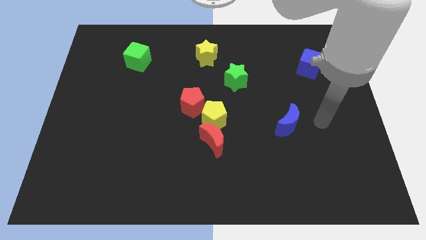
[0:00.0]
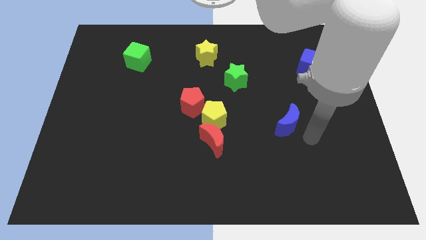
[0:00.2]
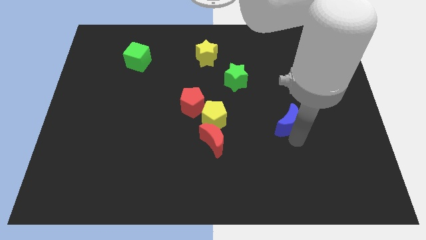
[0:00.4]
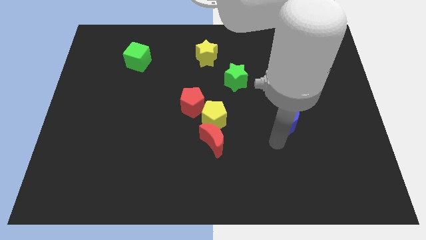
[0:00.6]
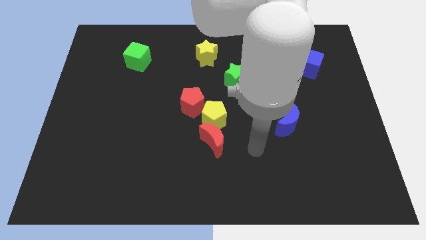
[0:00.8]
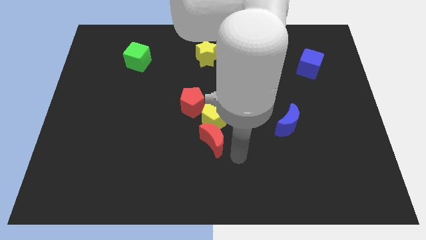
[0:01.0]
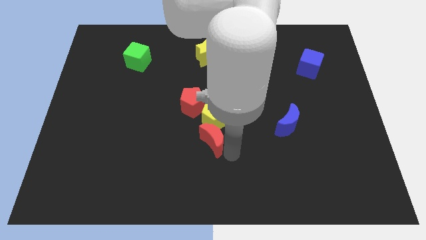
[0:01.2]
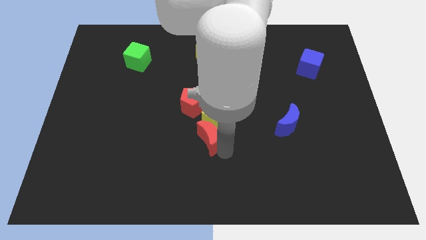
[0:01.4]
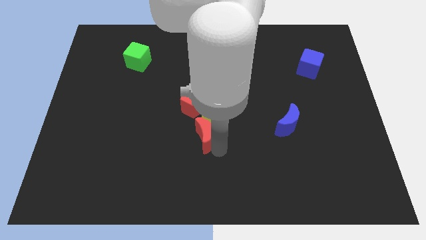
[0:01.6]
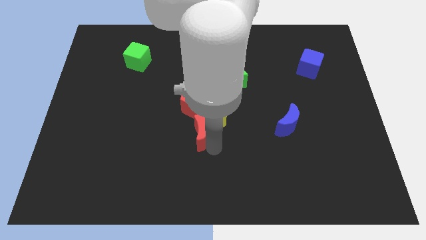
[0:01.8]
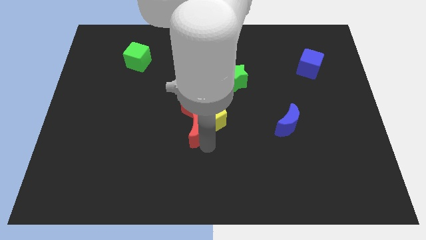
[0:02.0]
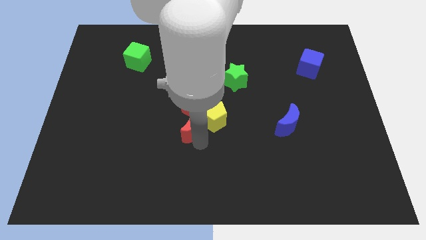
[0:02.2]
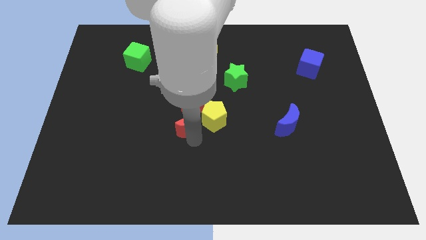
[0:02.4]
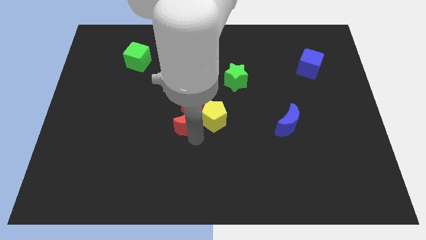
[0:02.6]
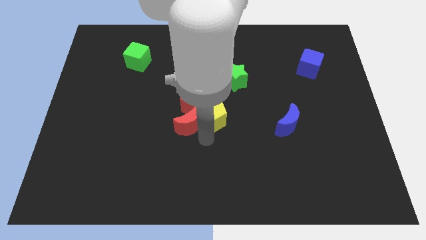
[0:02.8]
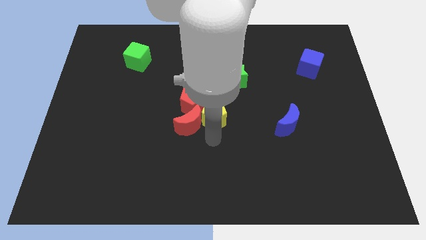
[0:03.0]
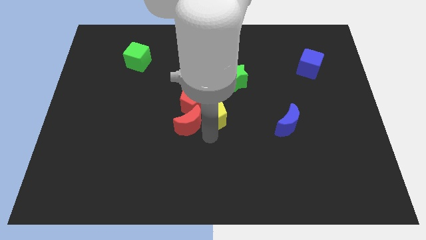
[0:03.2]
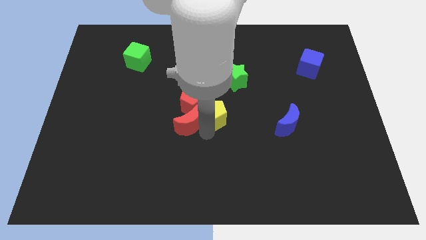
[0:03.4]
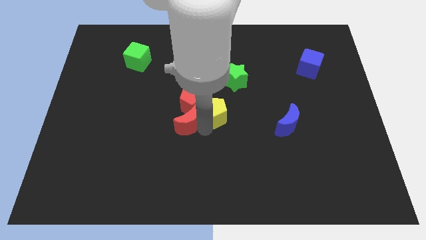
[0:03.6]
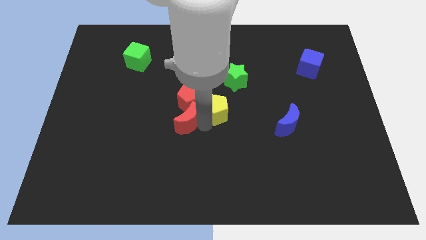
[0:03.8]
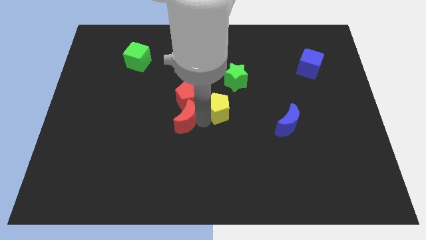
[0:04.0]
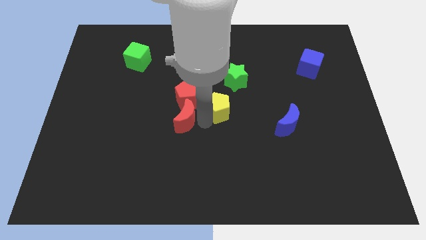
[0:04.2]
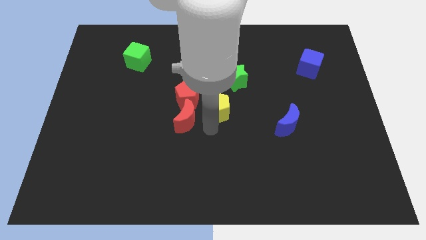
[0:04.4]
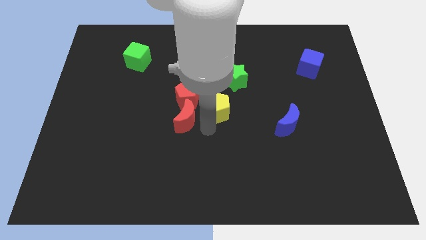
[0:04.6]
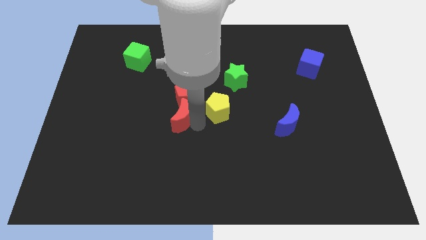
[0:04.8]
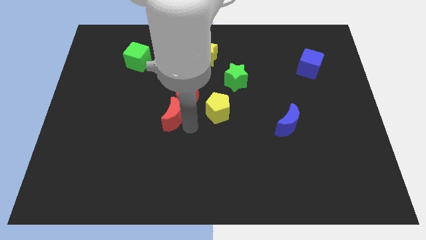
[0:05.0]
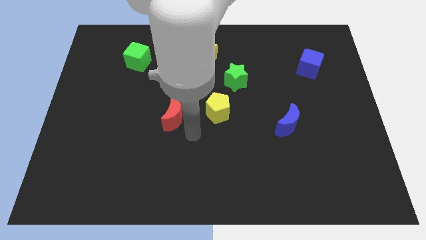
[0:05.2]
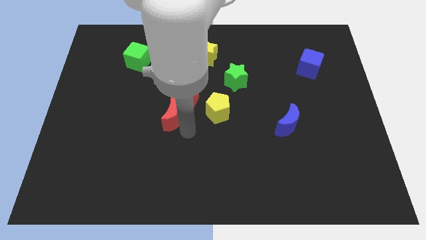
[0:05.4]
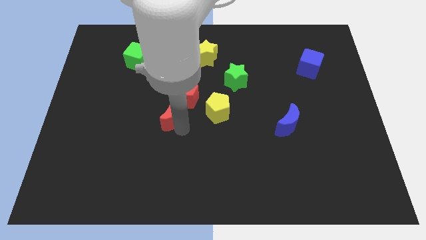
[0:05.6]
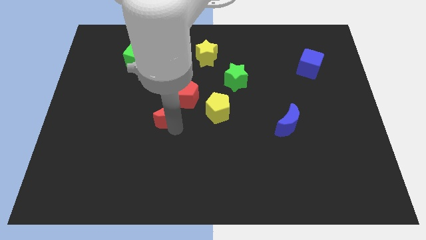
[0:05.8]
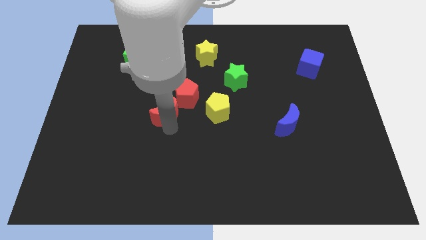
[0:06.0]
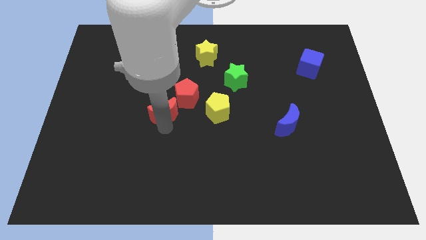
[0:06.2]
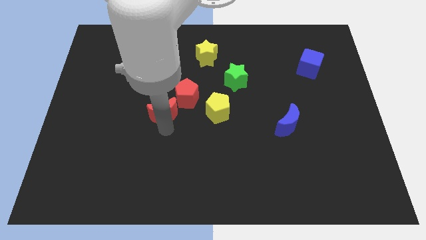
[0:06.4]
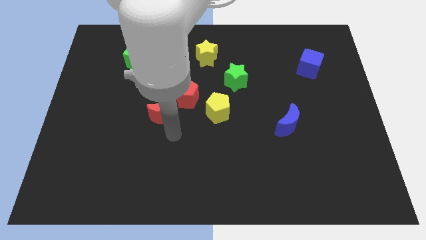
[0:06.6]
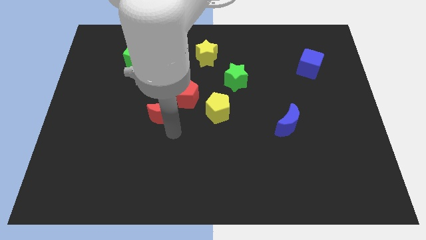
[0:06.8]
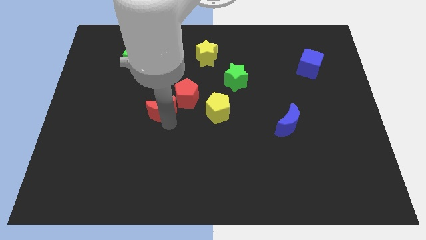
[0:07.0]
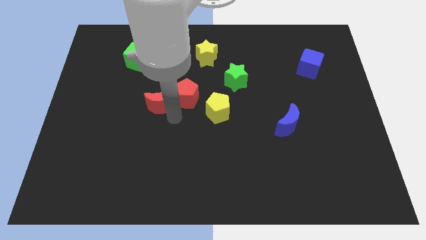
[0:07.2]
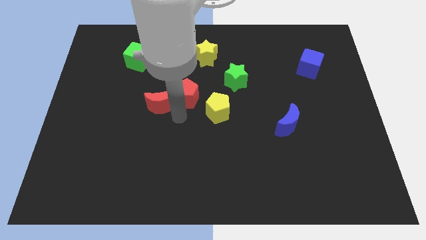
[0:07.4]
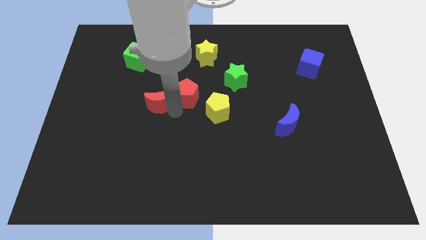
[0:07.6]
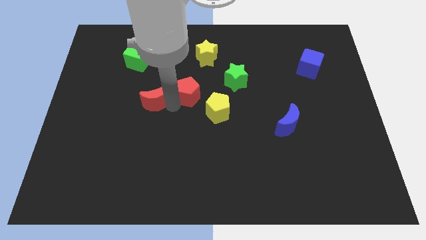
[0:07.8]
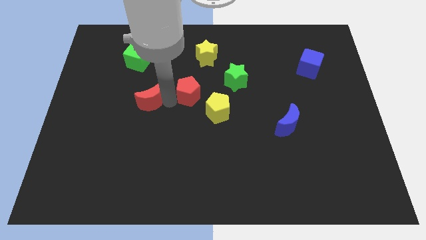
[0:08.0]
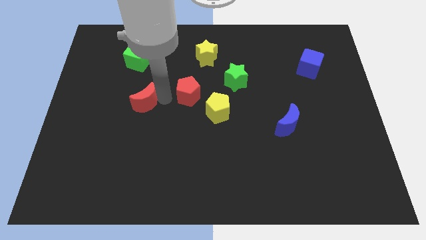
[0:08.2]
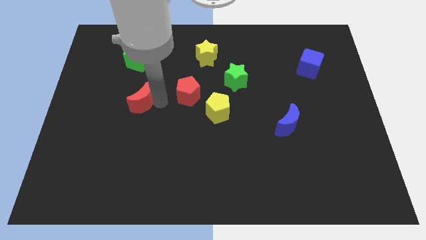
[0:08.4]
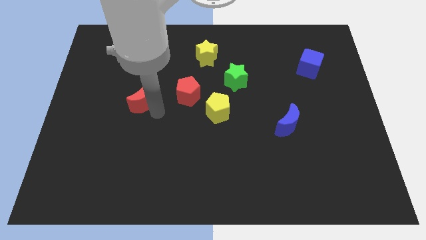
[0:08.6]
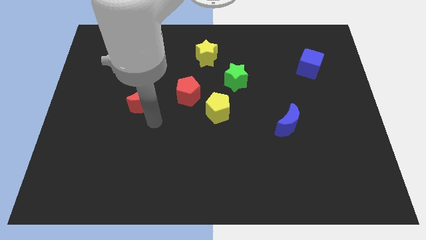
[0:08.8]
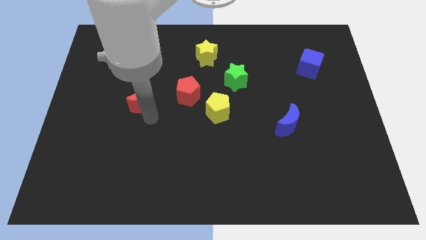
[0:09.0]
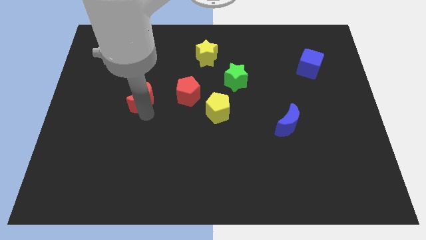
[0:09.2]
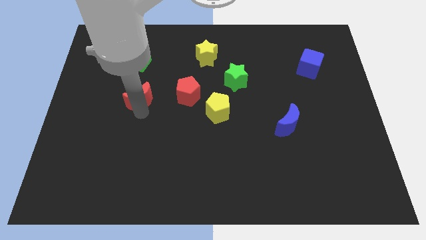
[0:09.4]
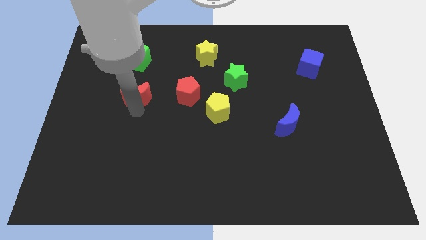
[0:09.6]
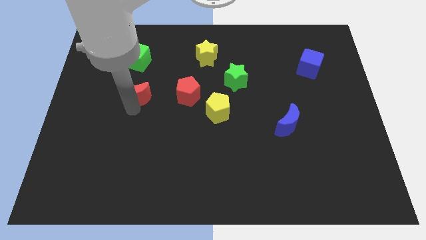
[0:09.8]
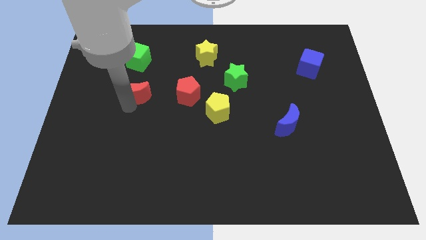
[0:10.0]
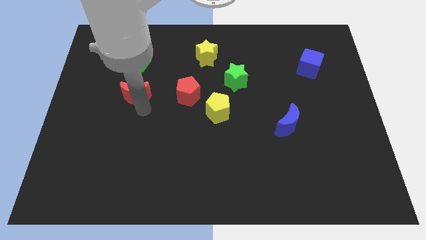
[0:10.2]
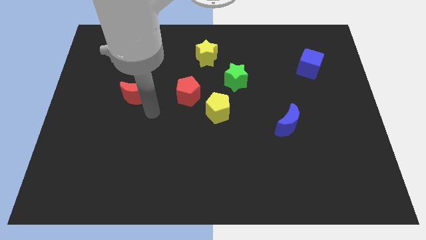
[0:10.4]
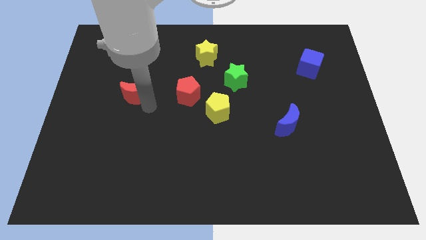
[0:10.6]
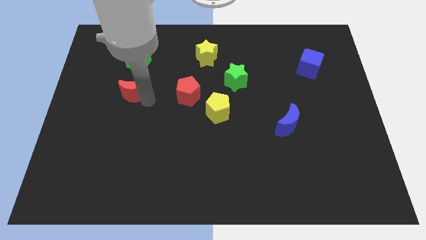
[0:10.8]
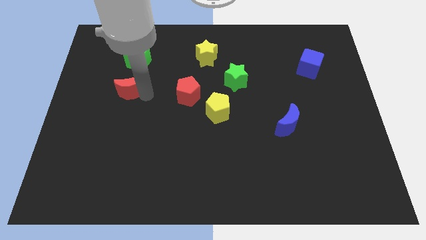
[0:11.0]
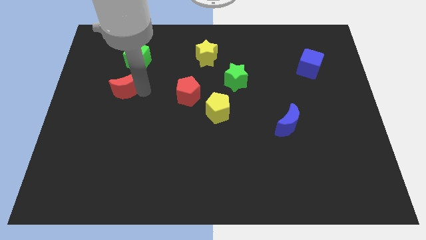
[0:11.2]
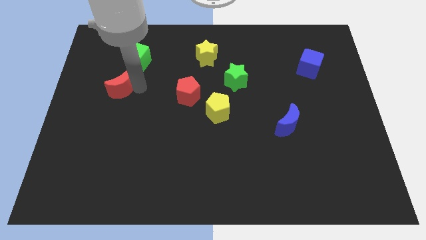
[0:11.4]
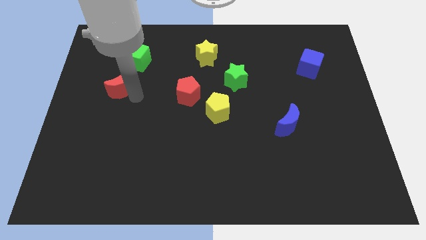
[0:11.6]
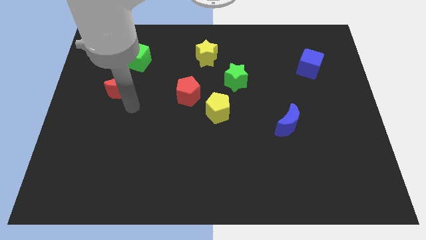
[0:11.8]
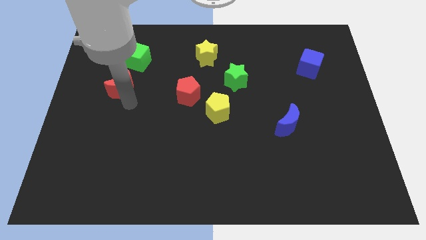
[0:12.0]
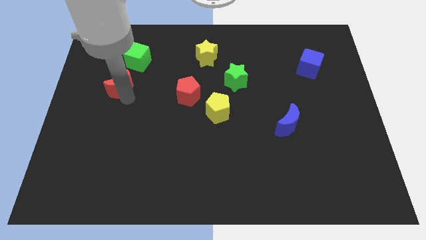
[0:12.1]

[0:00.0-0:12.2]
slide the red moon diagonally down and to the left of the green cube

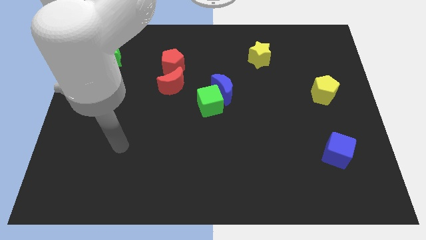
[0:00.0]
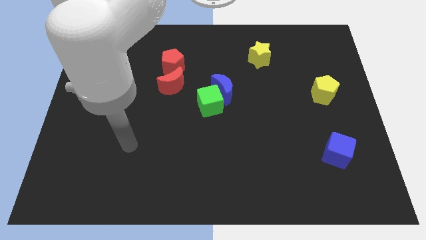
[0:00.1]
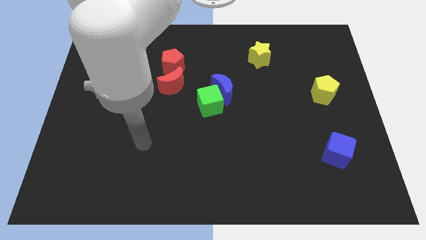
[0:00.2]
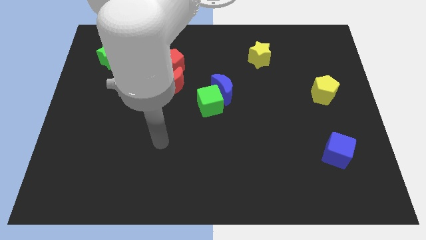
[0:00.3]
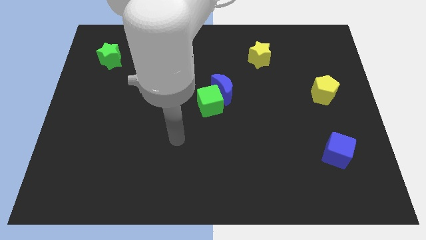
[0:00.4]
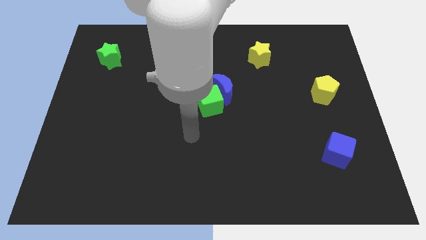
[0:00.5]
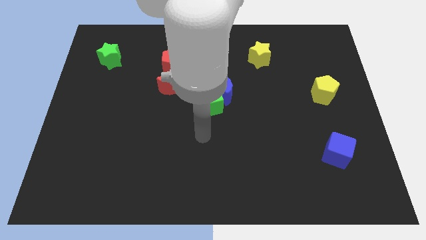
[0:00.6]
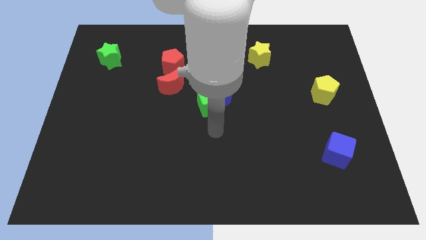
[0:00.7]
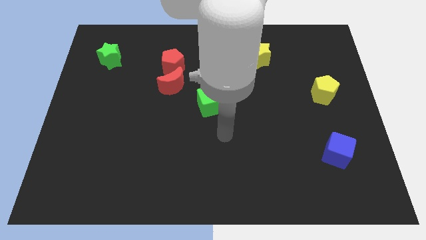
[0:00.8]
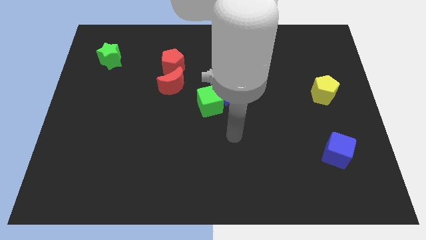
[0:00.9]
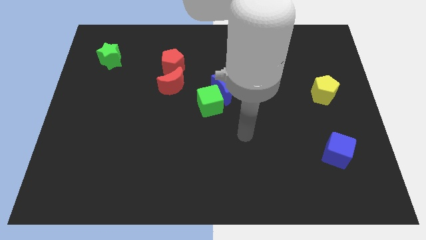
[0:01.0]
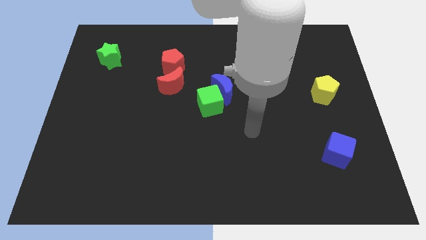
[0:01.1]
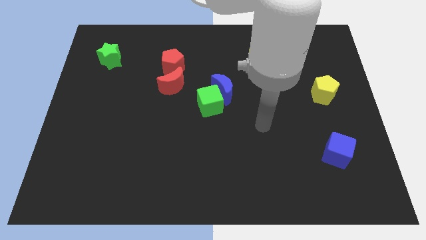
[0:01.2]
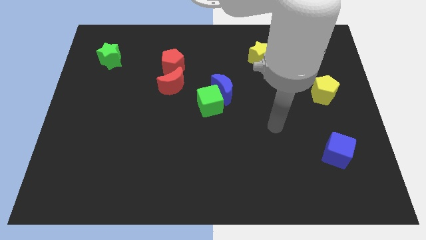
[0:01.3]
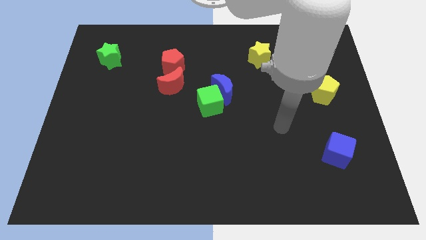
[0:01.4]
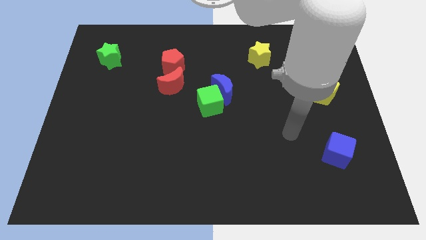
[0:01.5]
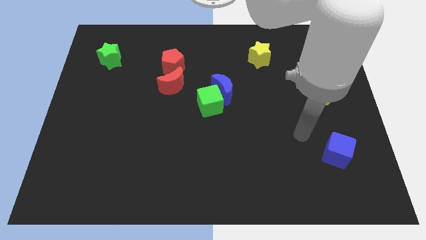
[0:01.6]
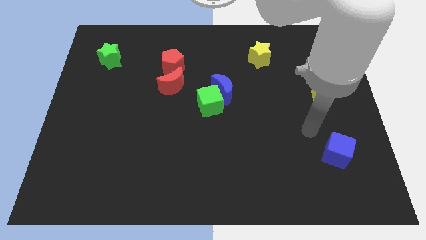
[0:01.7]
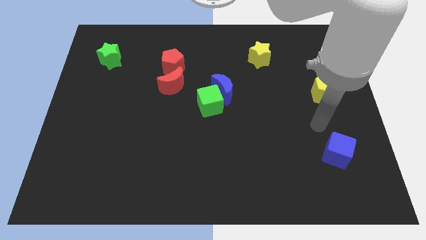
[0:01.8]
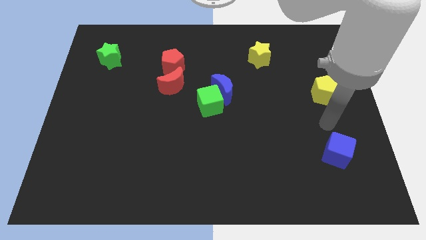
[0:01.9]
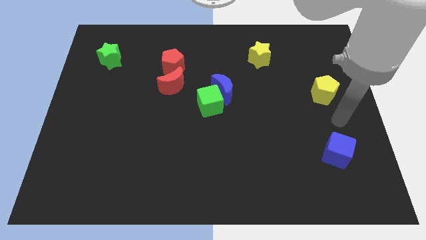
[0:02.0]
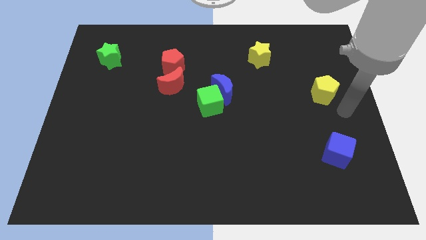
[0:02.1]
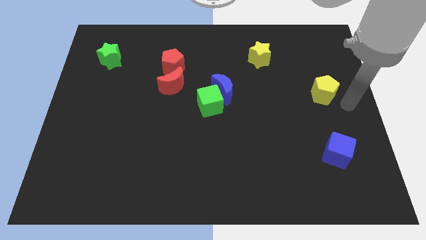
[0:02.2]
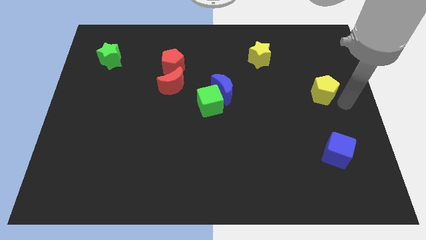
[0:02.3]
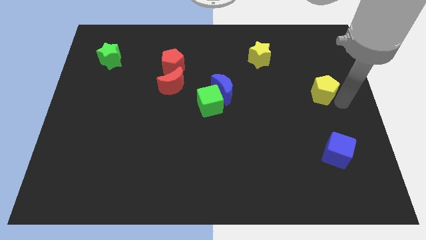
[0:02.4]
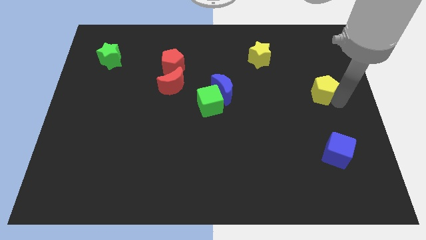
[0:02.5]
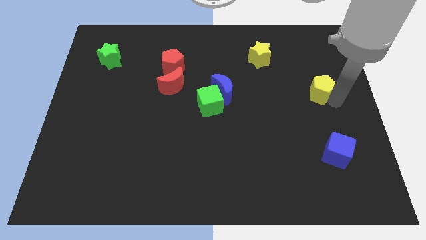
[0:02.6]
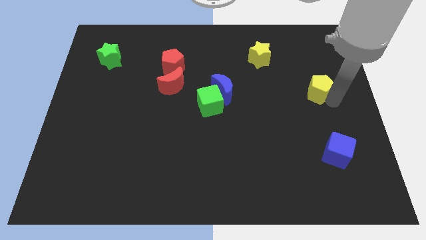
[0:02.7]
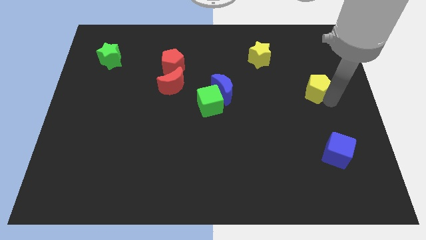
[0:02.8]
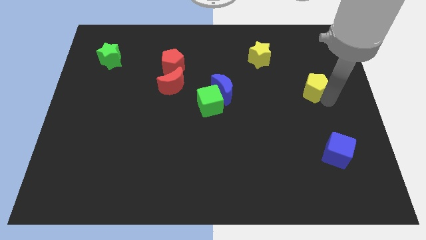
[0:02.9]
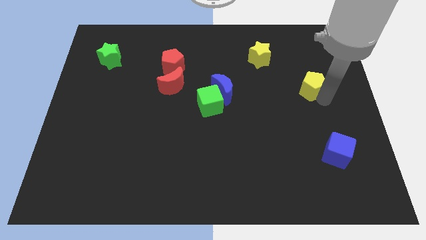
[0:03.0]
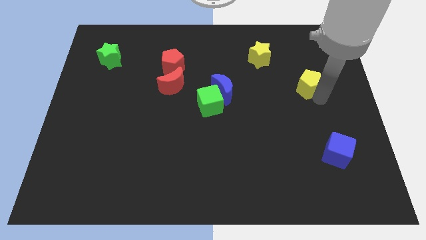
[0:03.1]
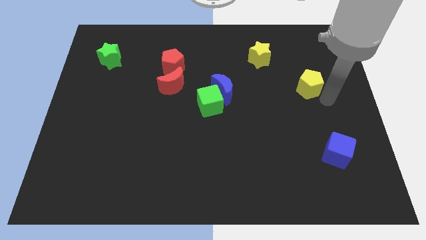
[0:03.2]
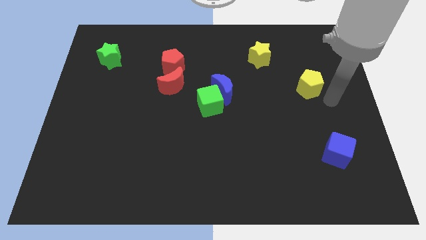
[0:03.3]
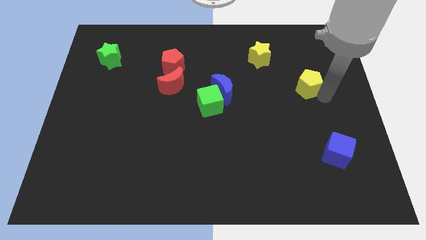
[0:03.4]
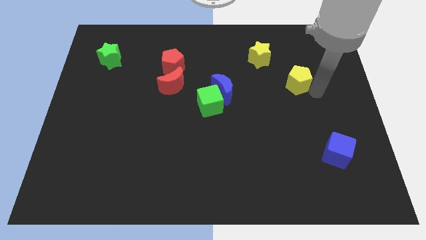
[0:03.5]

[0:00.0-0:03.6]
slide the yellow pentagon to the bottom right of the yellow star
